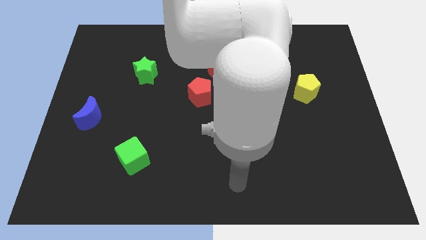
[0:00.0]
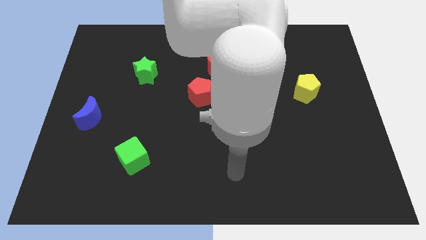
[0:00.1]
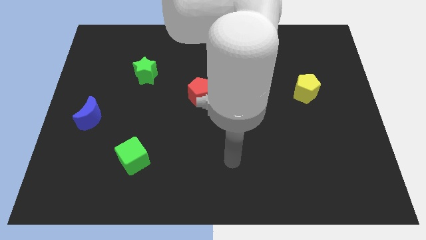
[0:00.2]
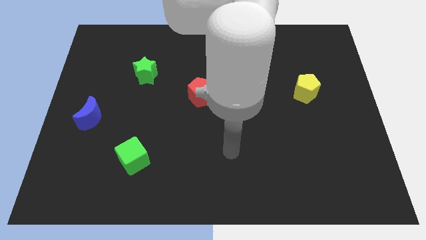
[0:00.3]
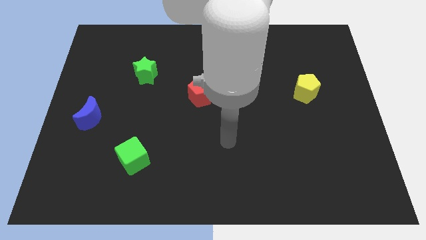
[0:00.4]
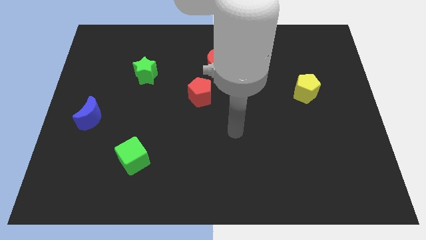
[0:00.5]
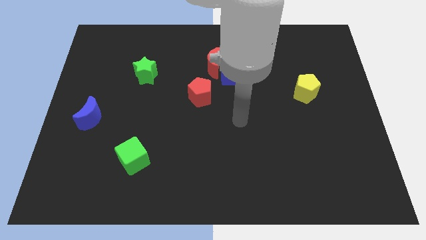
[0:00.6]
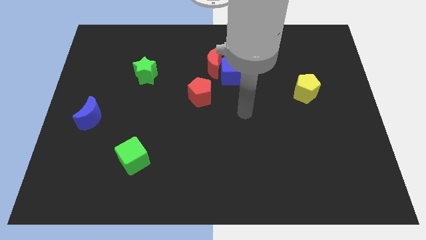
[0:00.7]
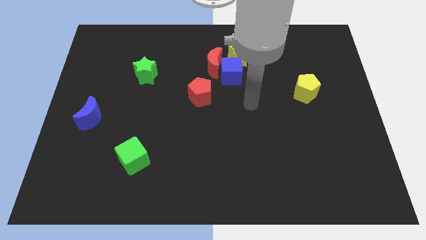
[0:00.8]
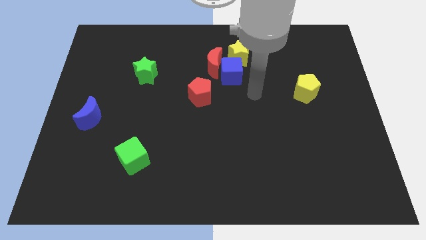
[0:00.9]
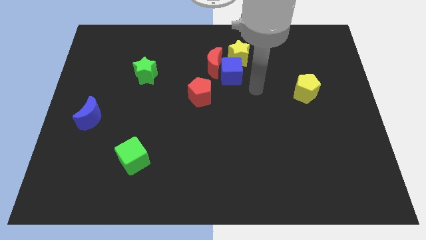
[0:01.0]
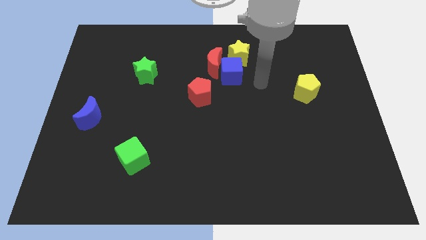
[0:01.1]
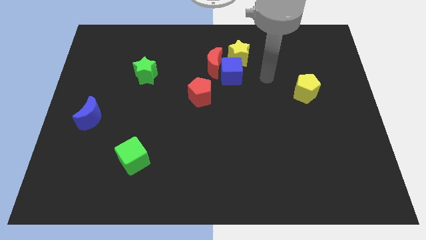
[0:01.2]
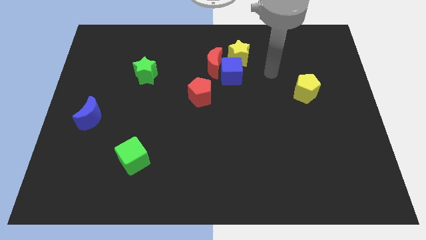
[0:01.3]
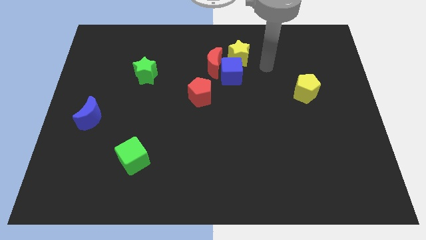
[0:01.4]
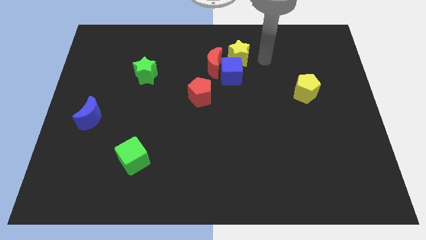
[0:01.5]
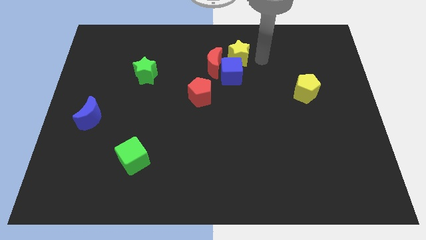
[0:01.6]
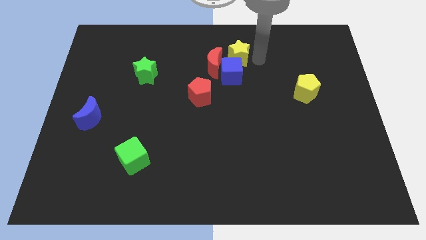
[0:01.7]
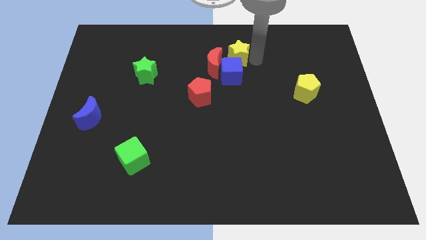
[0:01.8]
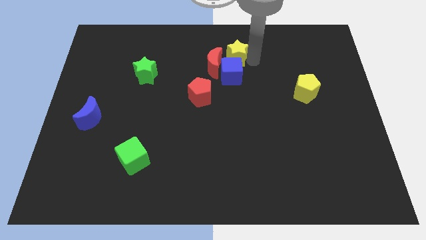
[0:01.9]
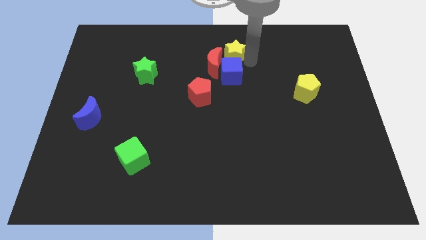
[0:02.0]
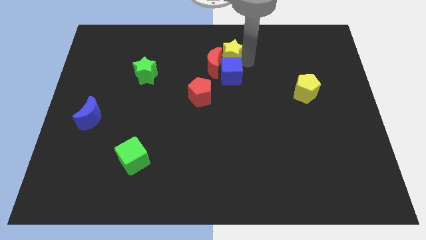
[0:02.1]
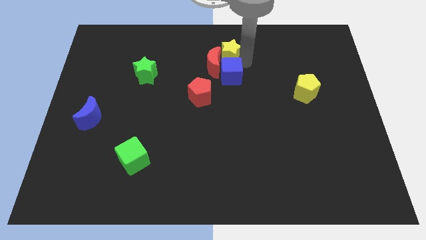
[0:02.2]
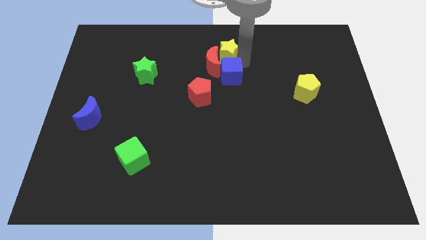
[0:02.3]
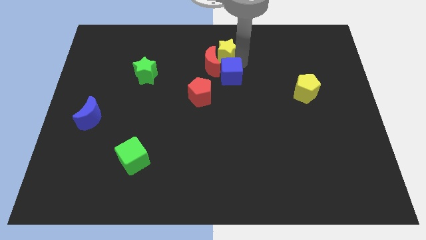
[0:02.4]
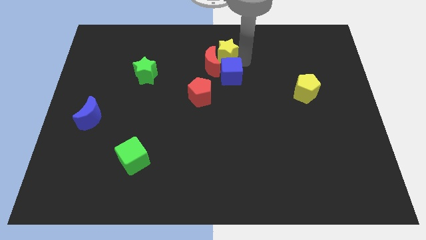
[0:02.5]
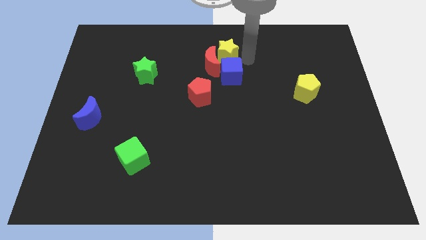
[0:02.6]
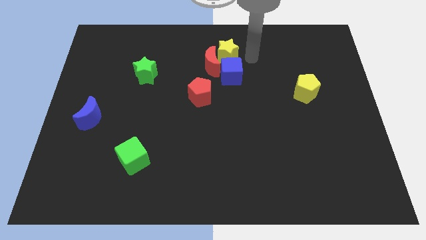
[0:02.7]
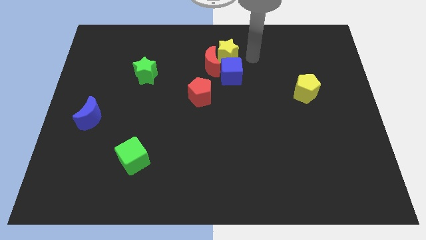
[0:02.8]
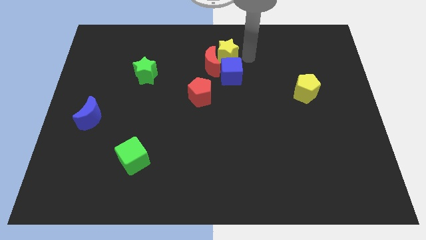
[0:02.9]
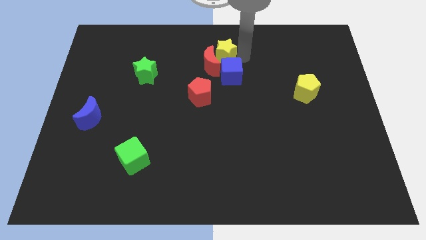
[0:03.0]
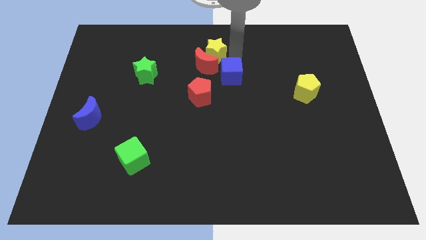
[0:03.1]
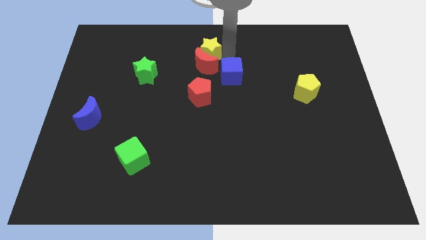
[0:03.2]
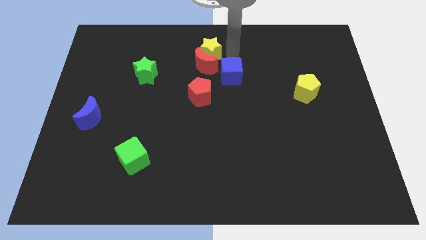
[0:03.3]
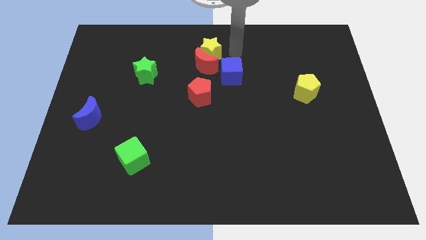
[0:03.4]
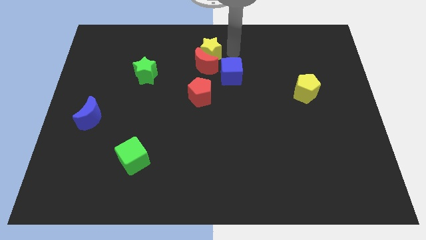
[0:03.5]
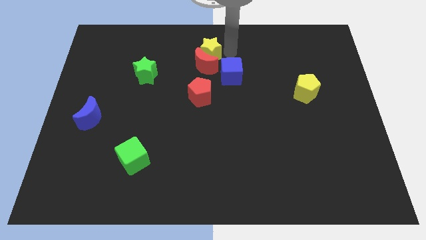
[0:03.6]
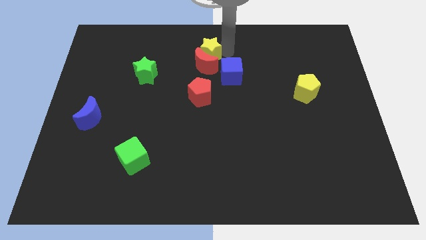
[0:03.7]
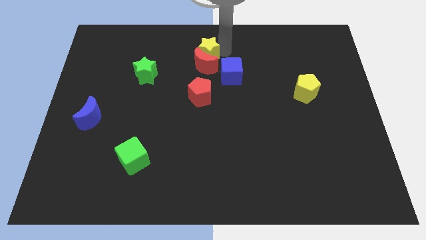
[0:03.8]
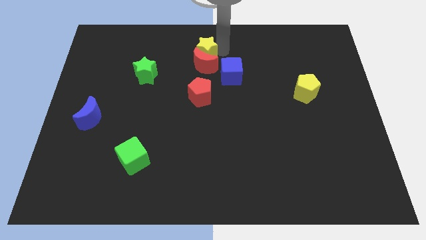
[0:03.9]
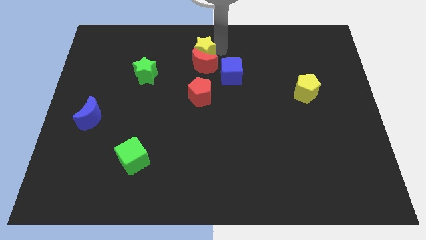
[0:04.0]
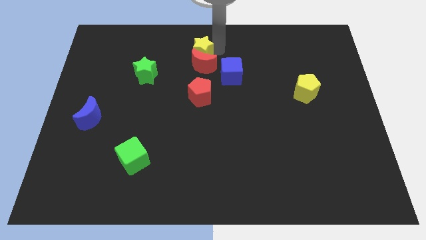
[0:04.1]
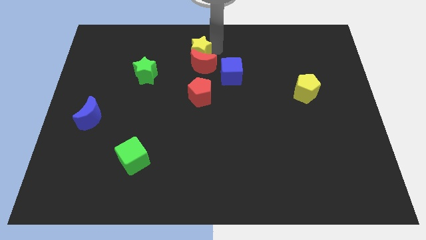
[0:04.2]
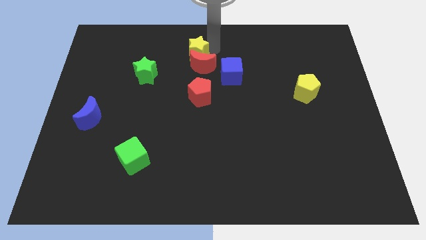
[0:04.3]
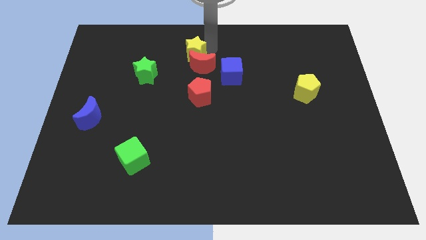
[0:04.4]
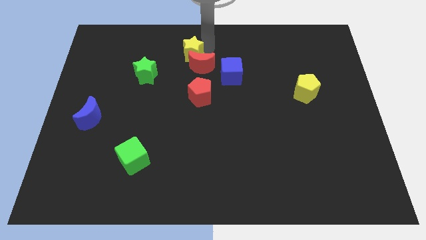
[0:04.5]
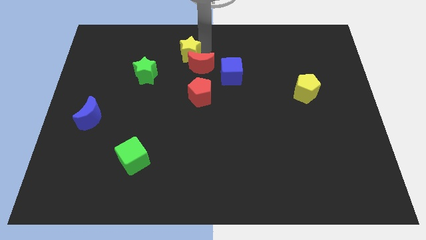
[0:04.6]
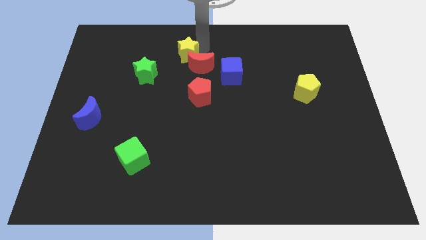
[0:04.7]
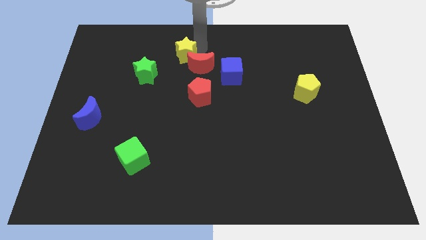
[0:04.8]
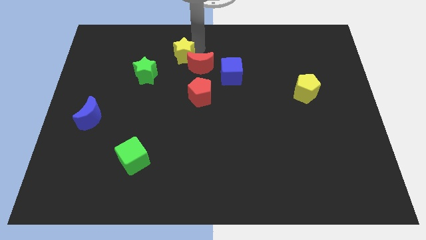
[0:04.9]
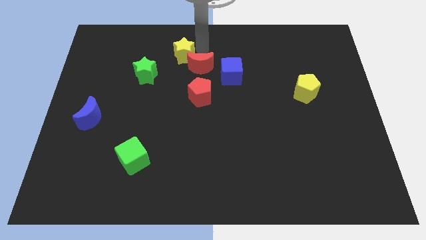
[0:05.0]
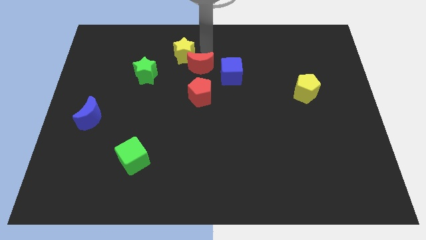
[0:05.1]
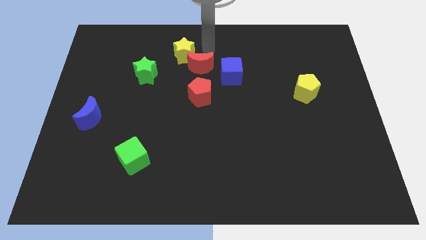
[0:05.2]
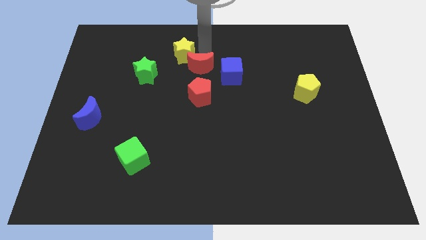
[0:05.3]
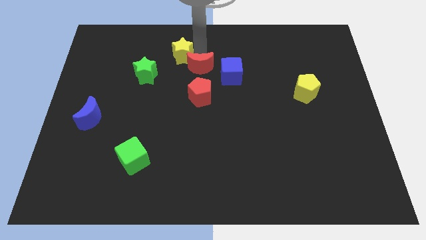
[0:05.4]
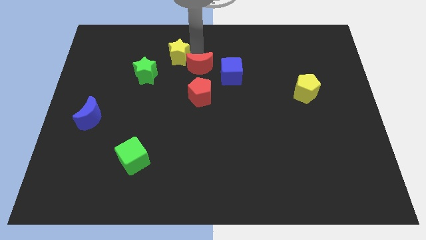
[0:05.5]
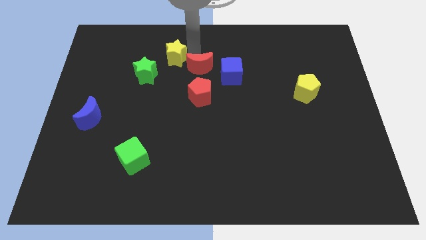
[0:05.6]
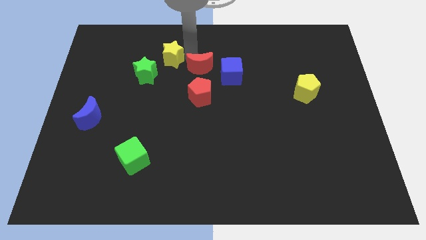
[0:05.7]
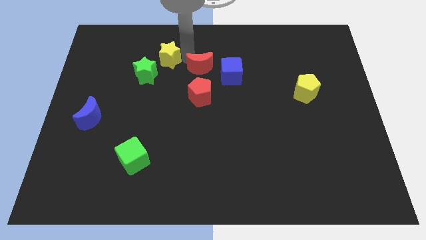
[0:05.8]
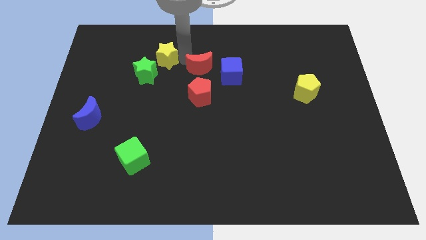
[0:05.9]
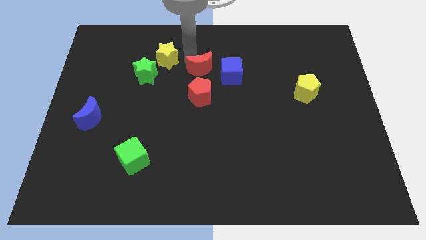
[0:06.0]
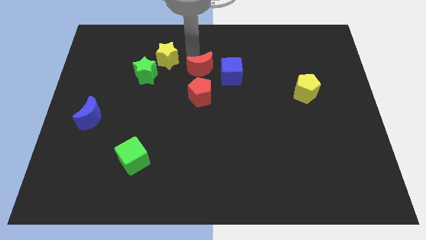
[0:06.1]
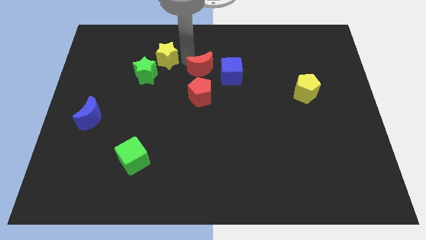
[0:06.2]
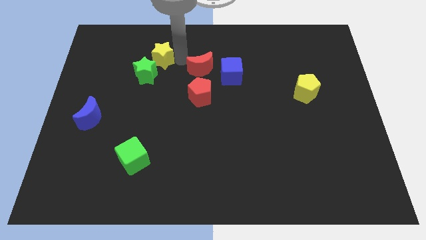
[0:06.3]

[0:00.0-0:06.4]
push the yellow star left

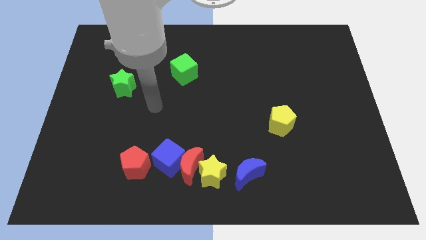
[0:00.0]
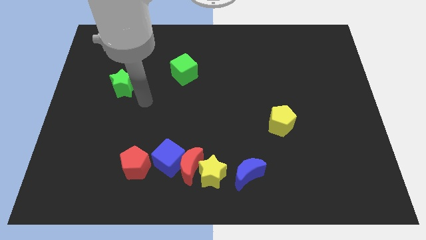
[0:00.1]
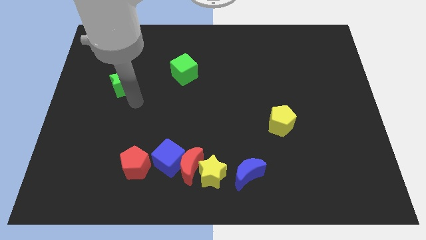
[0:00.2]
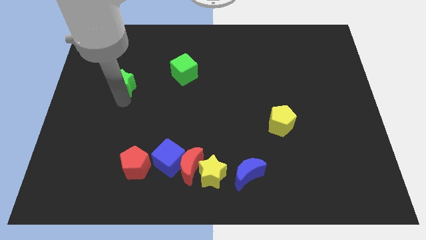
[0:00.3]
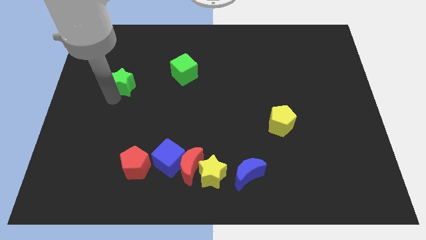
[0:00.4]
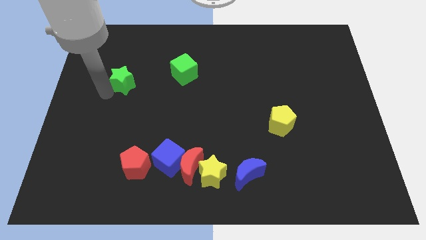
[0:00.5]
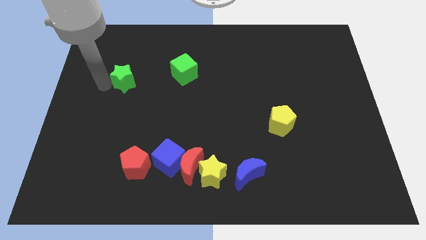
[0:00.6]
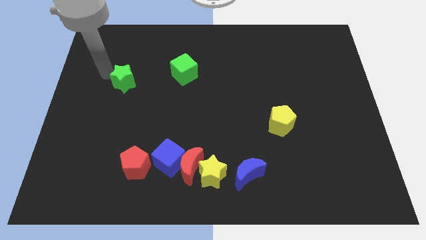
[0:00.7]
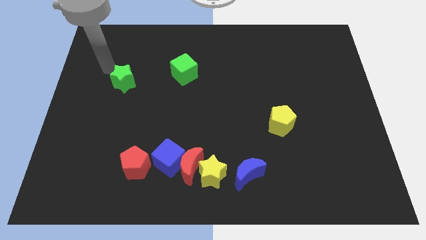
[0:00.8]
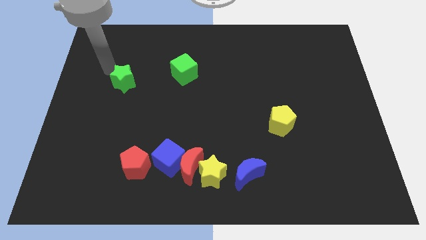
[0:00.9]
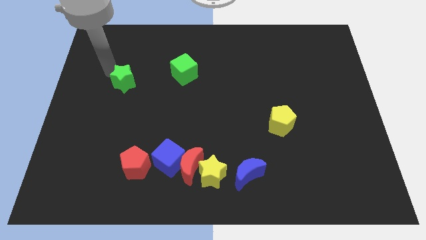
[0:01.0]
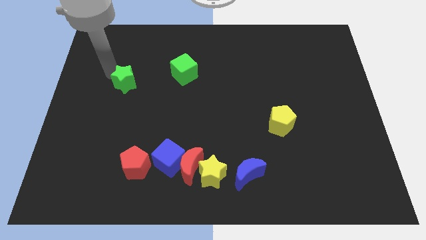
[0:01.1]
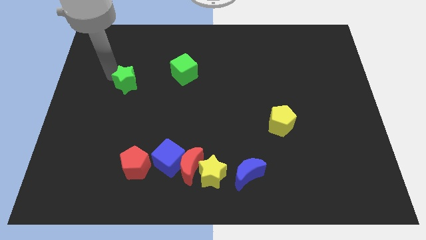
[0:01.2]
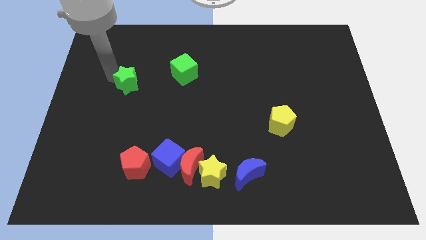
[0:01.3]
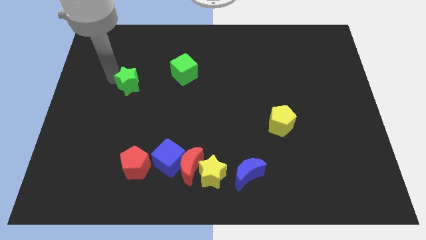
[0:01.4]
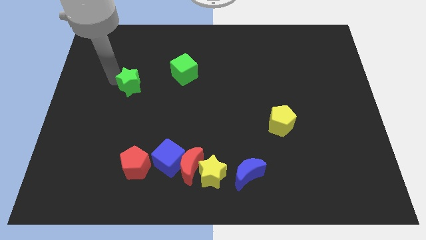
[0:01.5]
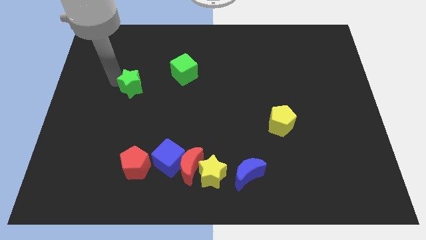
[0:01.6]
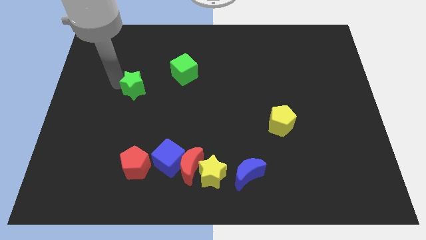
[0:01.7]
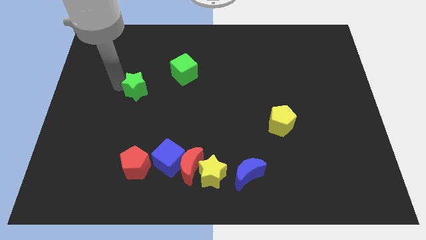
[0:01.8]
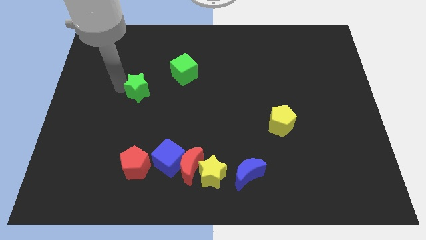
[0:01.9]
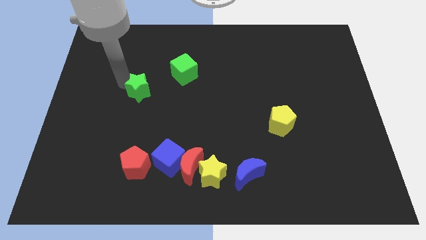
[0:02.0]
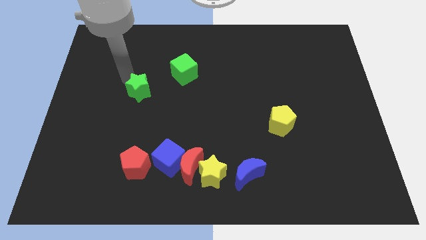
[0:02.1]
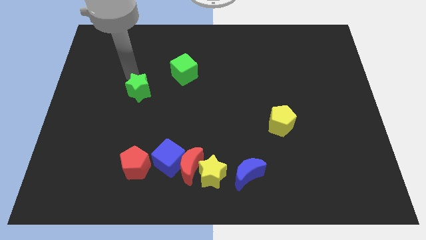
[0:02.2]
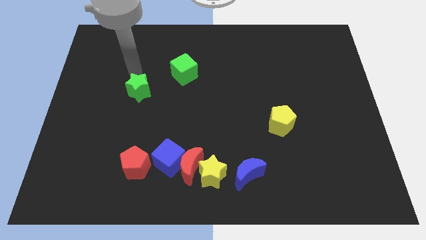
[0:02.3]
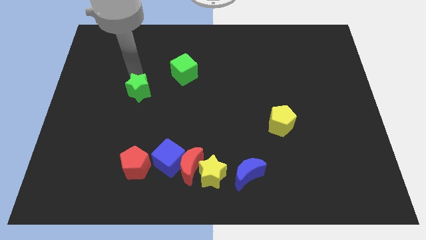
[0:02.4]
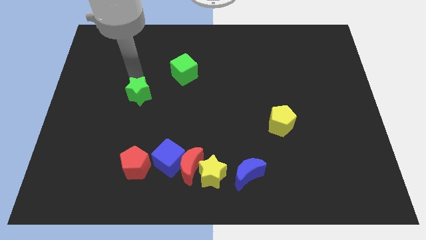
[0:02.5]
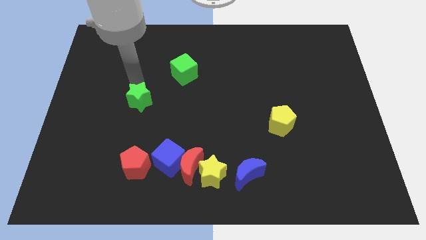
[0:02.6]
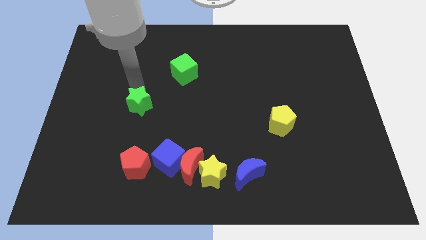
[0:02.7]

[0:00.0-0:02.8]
push the green star downwards and right diagonally a bit
